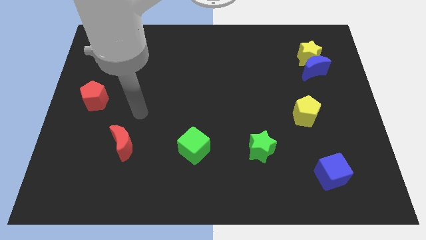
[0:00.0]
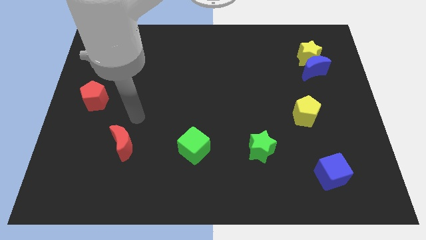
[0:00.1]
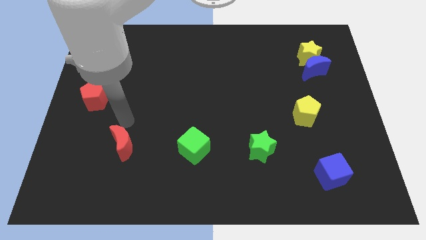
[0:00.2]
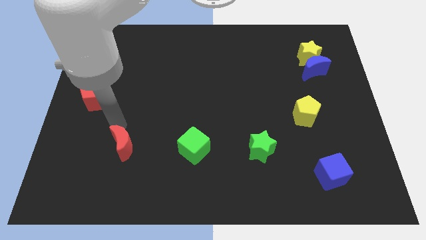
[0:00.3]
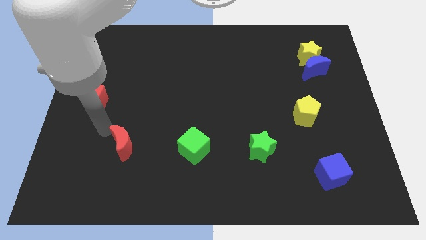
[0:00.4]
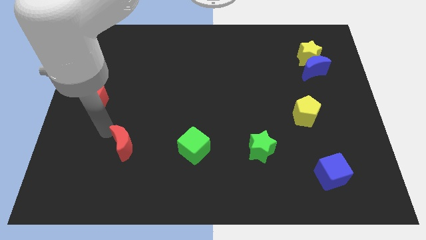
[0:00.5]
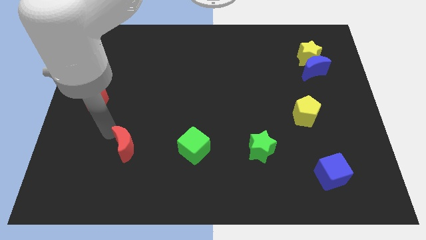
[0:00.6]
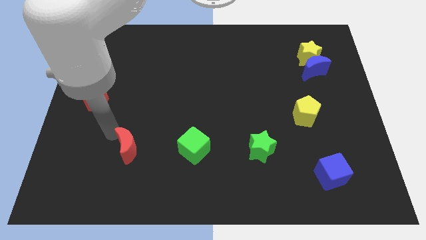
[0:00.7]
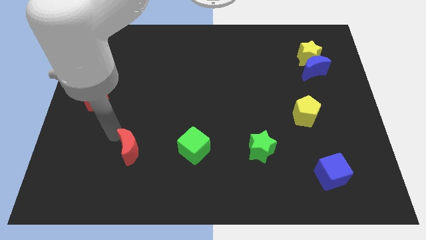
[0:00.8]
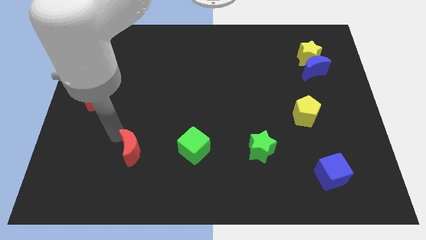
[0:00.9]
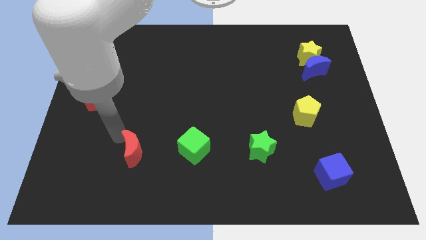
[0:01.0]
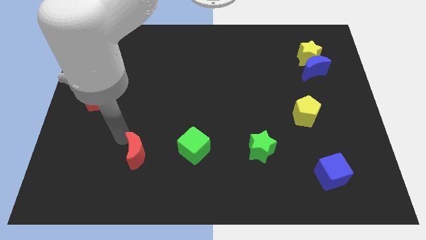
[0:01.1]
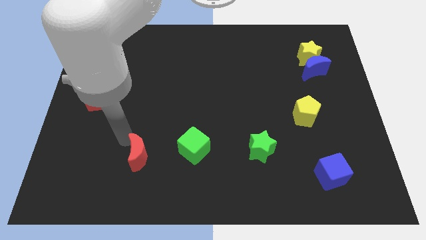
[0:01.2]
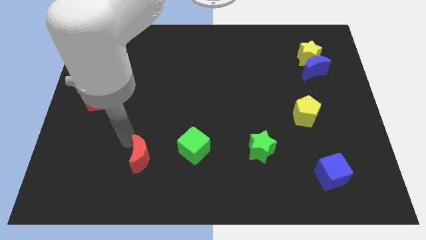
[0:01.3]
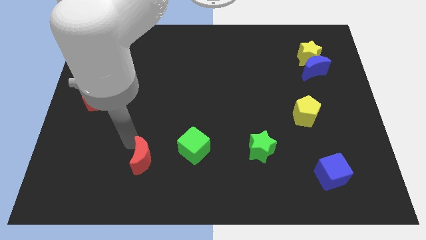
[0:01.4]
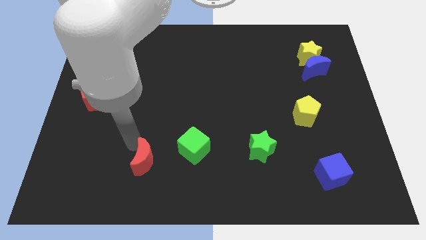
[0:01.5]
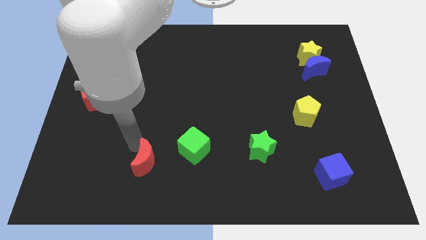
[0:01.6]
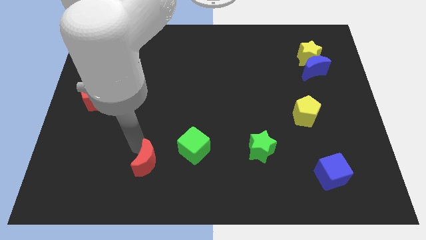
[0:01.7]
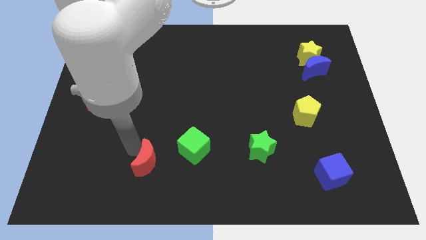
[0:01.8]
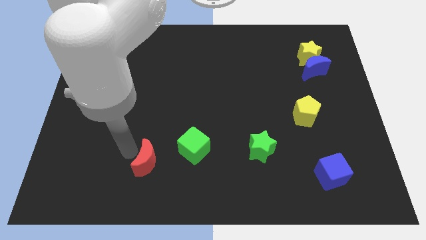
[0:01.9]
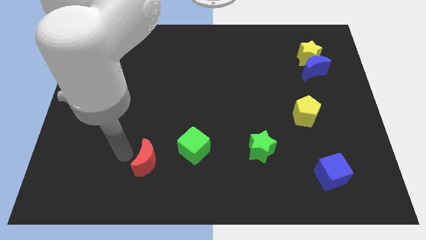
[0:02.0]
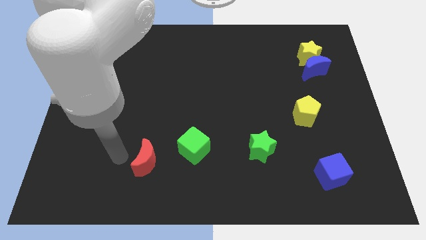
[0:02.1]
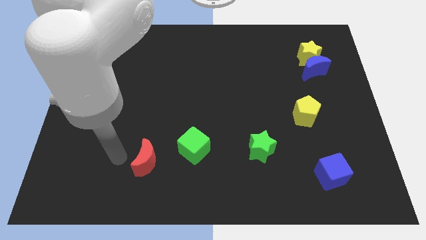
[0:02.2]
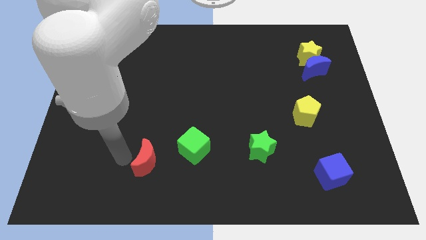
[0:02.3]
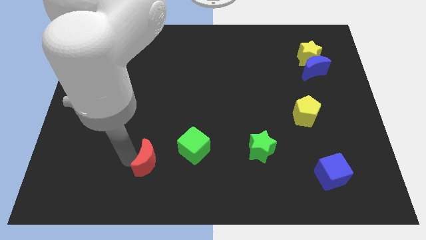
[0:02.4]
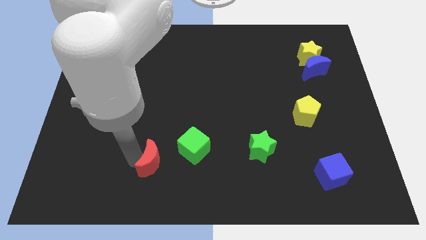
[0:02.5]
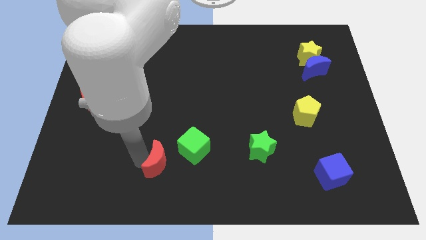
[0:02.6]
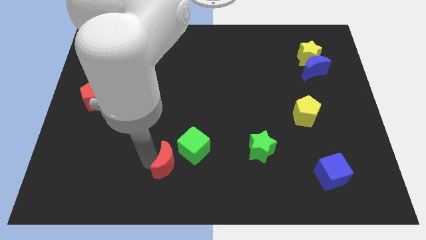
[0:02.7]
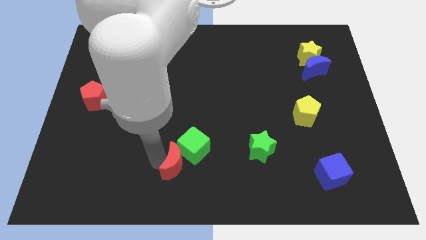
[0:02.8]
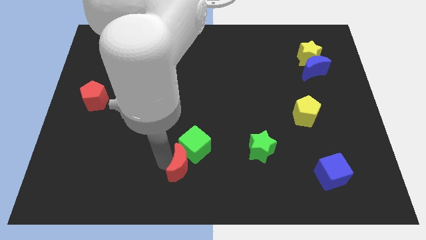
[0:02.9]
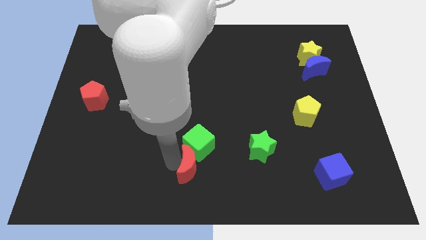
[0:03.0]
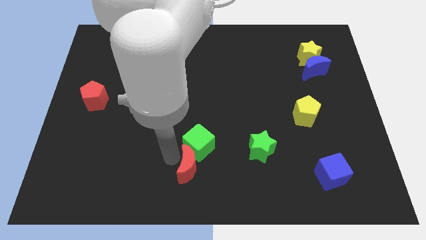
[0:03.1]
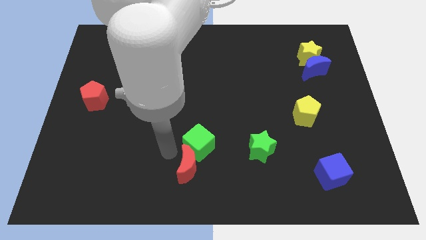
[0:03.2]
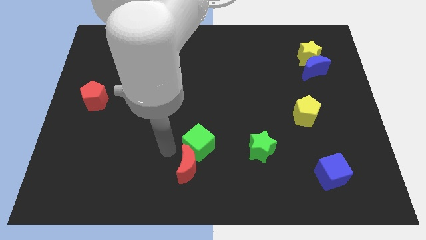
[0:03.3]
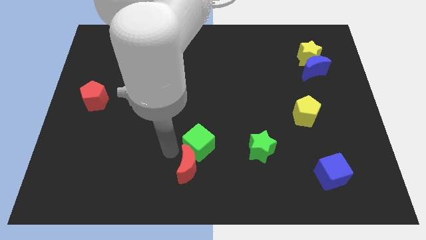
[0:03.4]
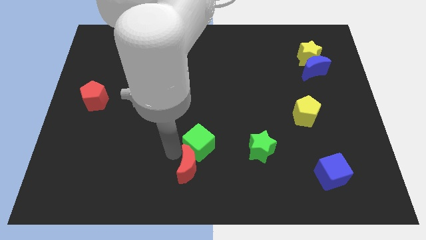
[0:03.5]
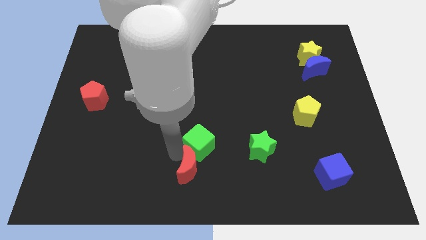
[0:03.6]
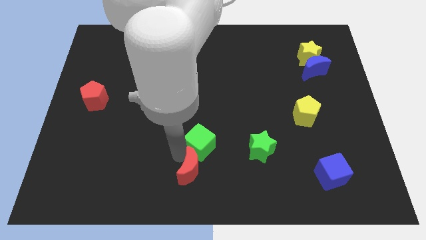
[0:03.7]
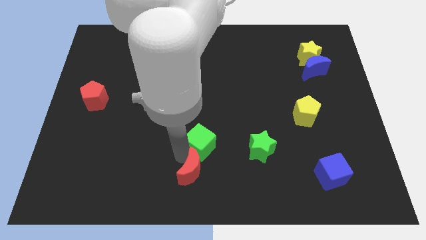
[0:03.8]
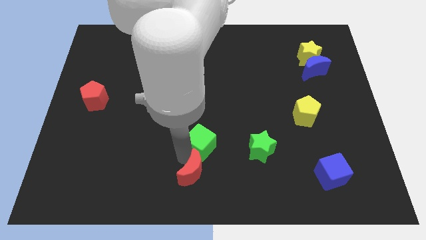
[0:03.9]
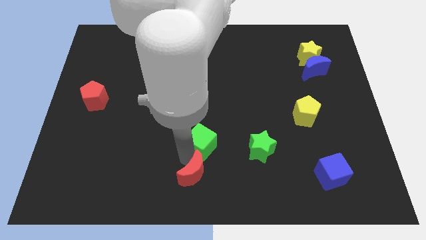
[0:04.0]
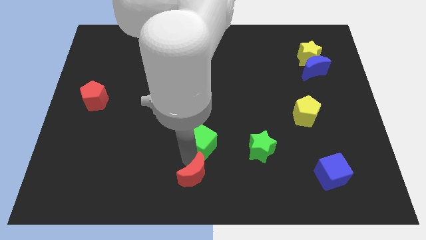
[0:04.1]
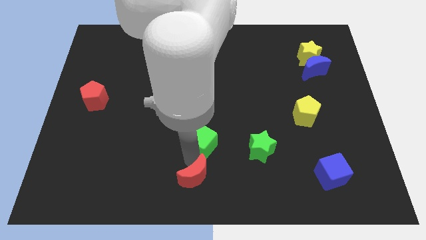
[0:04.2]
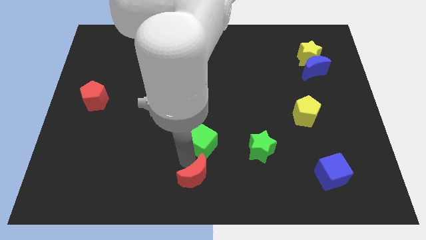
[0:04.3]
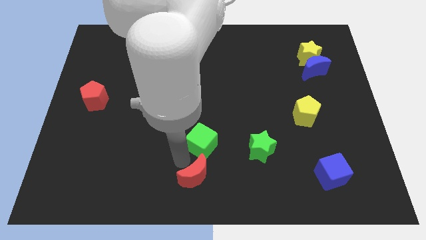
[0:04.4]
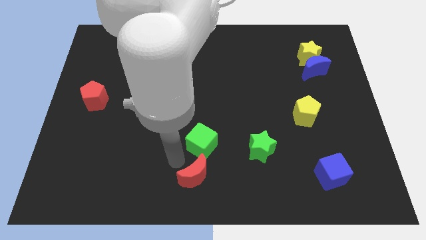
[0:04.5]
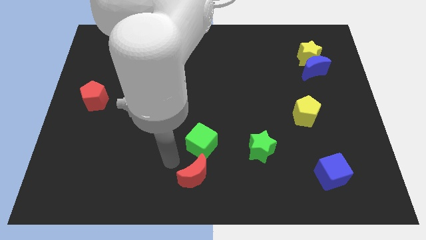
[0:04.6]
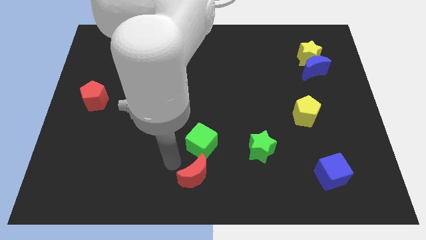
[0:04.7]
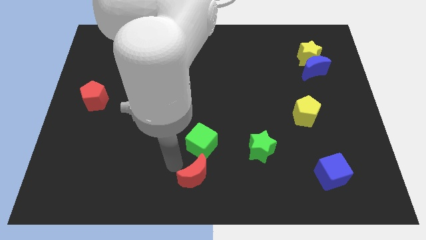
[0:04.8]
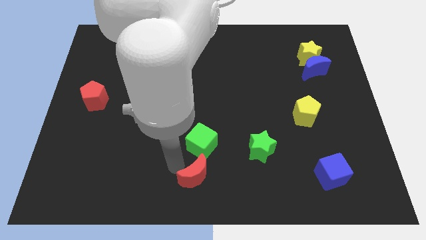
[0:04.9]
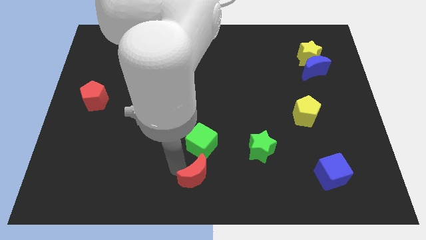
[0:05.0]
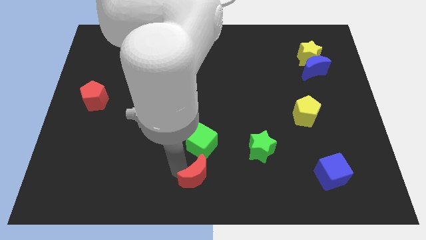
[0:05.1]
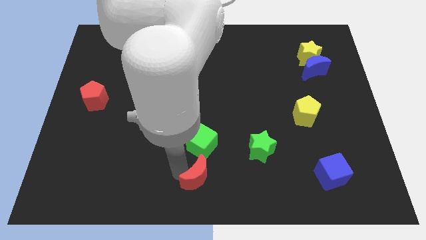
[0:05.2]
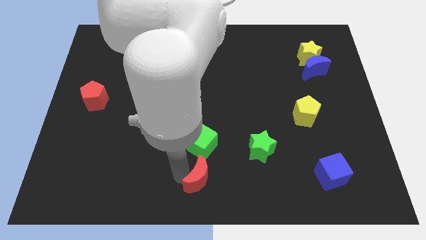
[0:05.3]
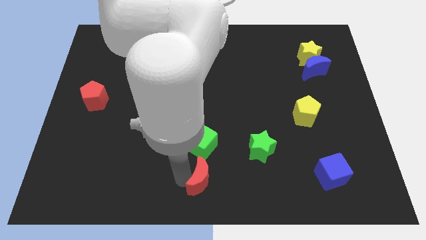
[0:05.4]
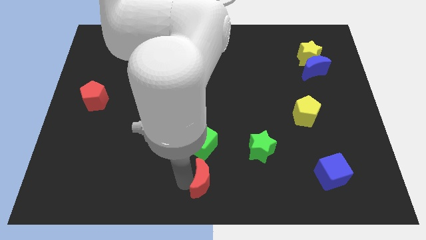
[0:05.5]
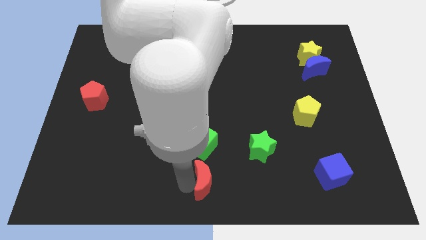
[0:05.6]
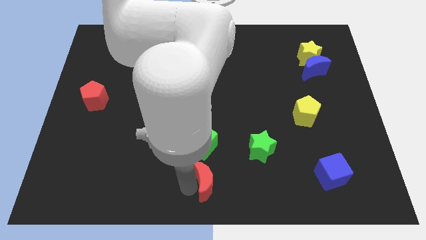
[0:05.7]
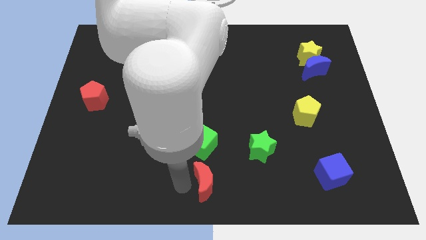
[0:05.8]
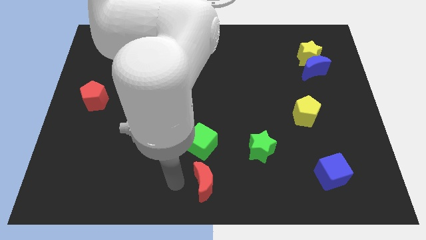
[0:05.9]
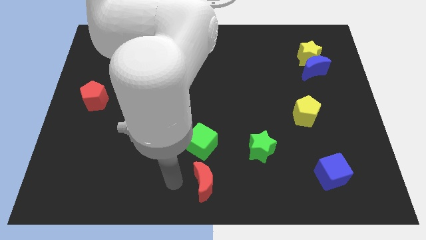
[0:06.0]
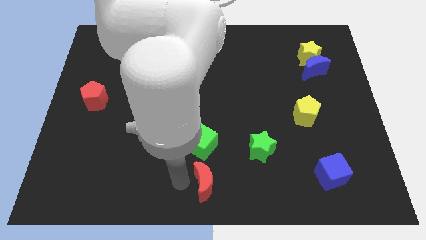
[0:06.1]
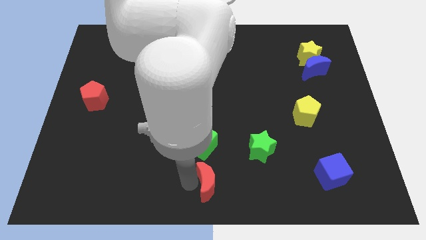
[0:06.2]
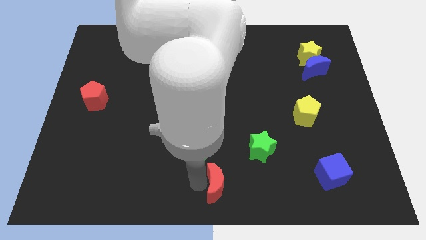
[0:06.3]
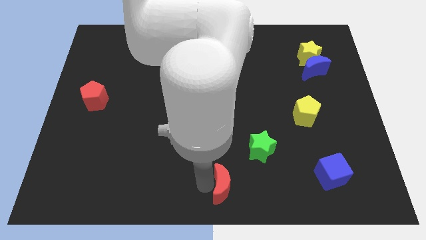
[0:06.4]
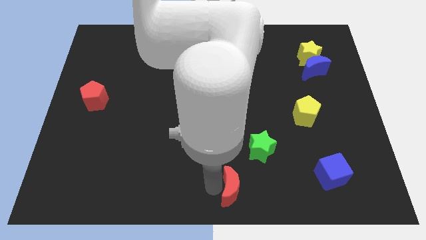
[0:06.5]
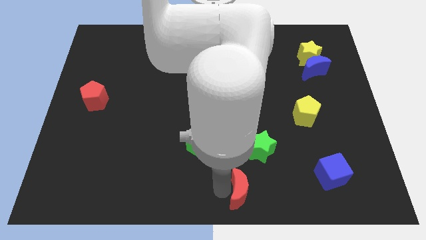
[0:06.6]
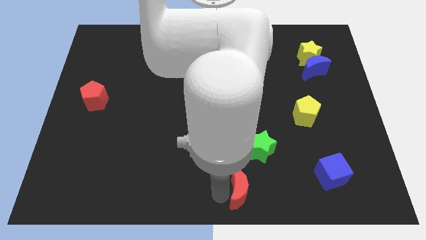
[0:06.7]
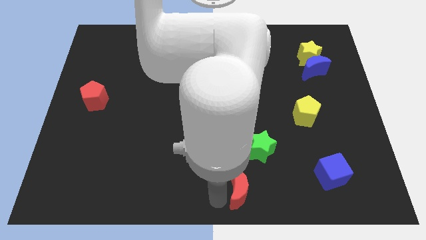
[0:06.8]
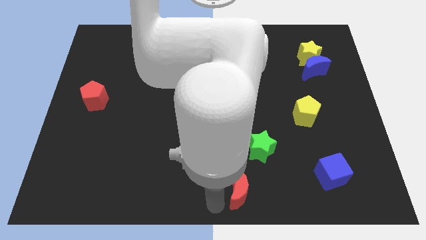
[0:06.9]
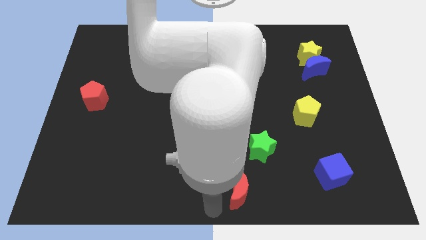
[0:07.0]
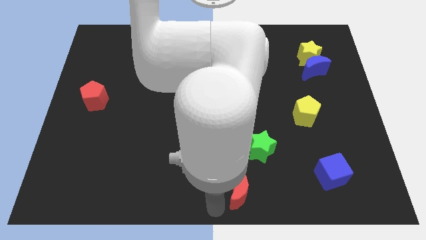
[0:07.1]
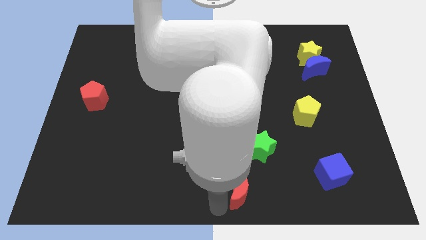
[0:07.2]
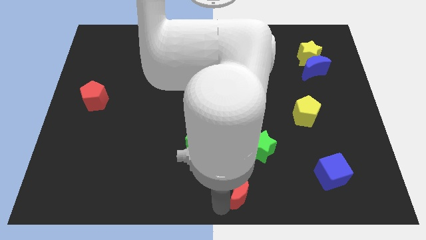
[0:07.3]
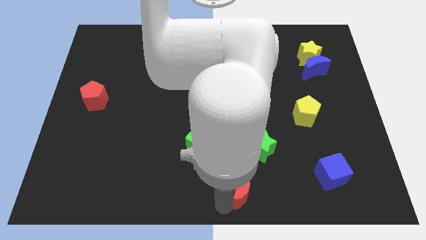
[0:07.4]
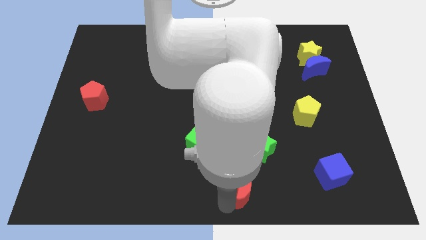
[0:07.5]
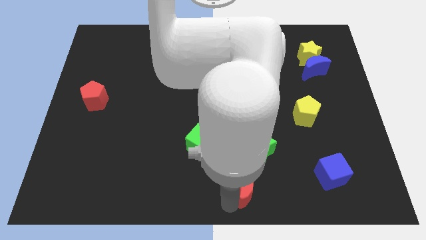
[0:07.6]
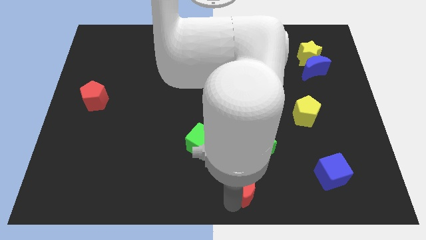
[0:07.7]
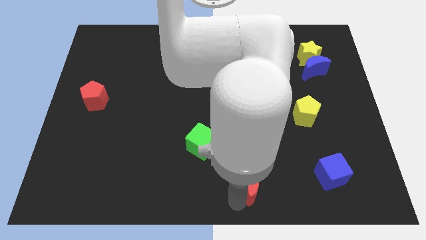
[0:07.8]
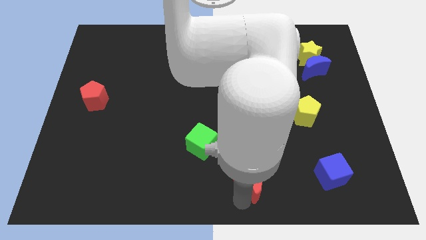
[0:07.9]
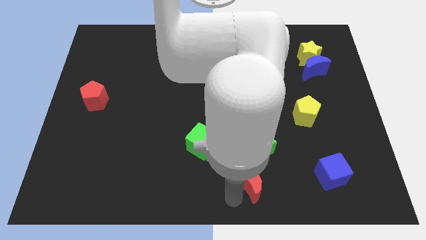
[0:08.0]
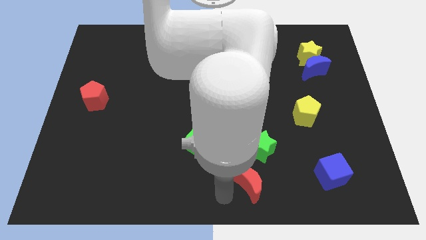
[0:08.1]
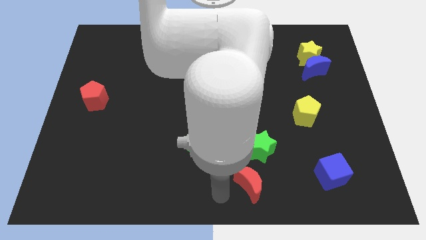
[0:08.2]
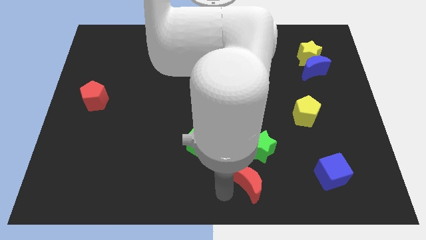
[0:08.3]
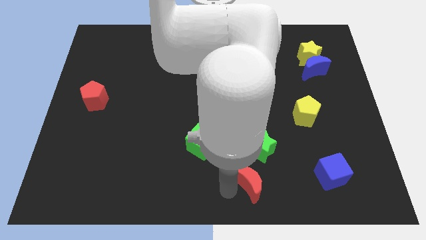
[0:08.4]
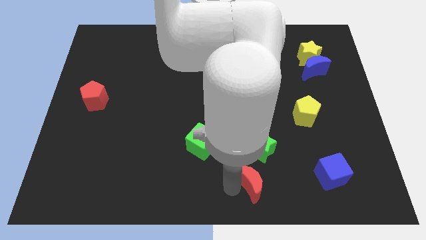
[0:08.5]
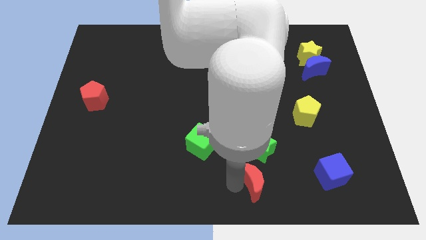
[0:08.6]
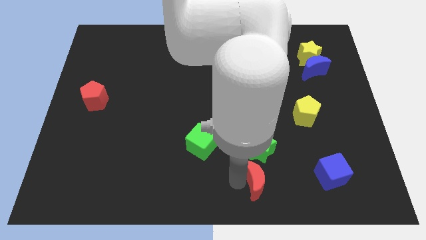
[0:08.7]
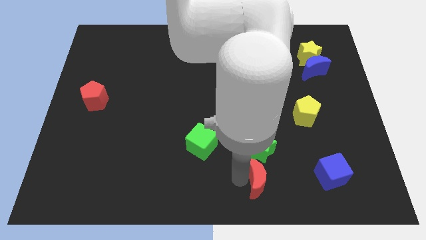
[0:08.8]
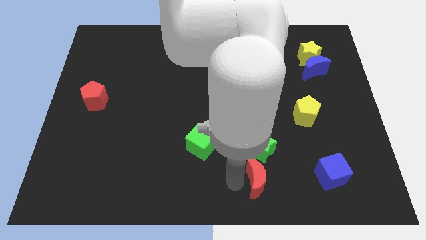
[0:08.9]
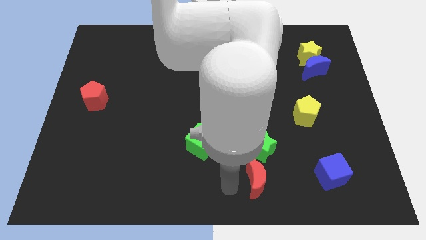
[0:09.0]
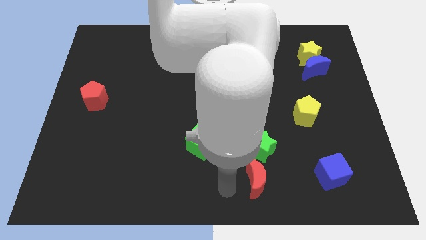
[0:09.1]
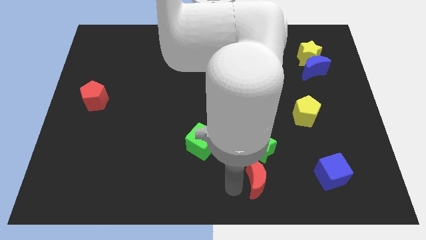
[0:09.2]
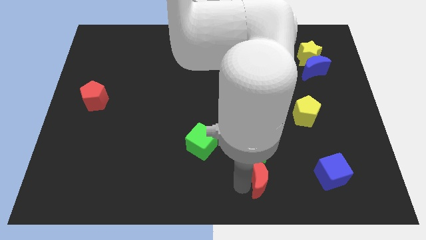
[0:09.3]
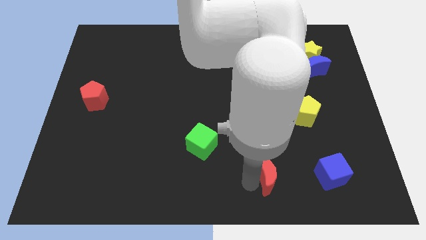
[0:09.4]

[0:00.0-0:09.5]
put the red moon diagonally down and to the right of the green star
